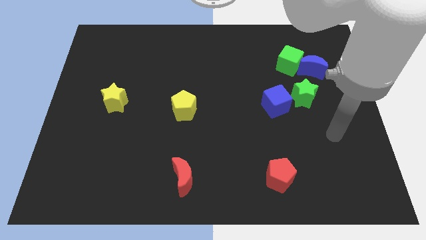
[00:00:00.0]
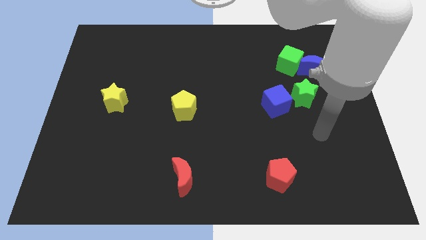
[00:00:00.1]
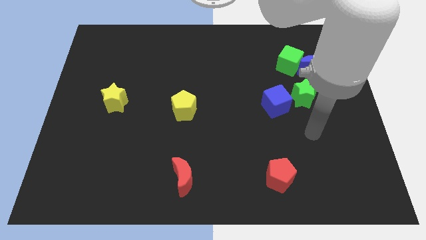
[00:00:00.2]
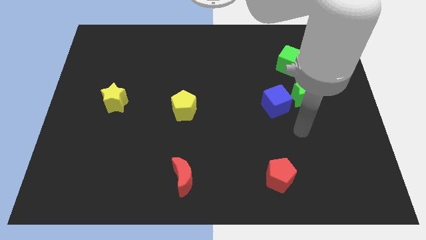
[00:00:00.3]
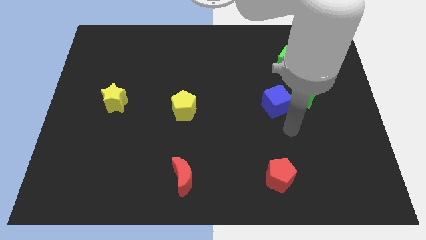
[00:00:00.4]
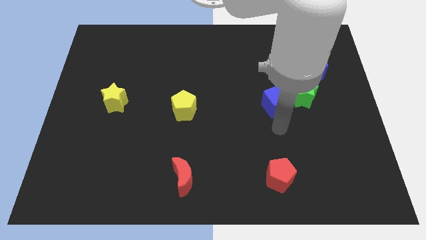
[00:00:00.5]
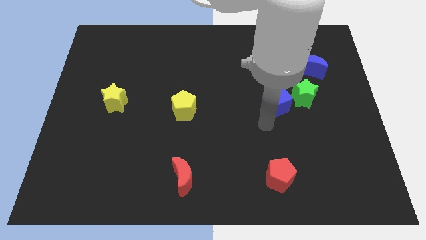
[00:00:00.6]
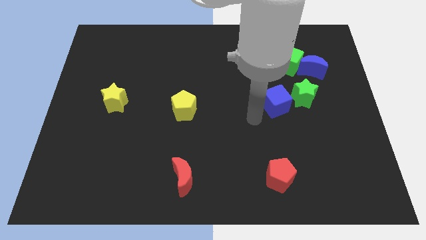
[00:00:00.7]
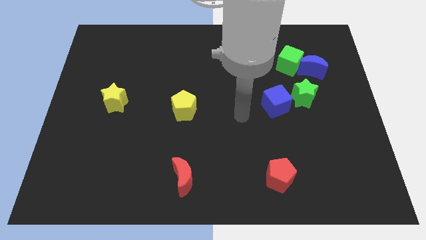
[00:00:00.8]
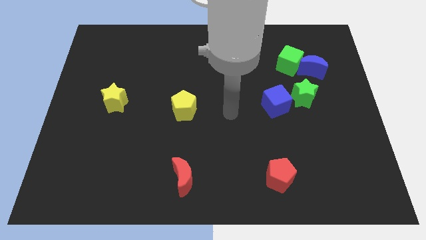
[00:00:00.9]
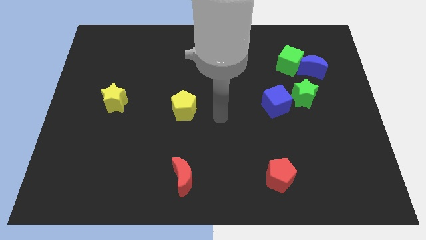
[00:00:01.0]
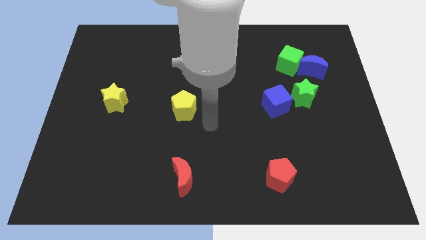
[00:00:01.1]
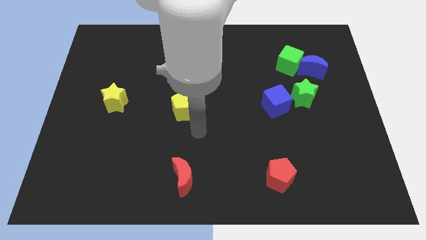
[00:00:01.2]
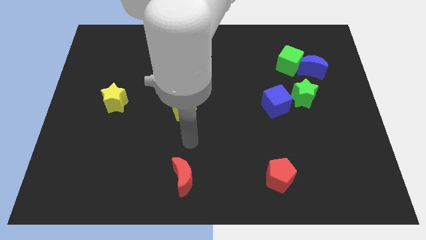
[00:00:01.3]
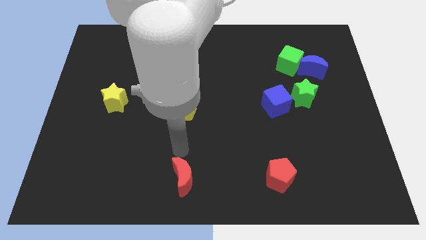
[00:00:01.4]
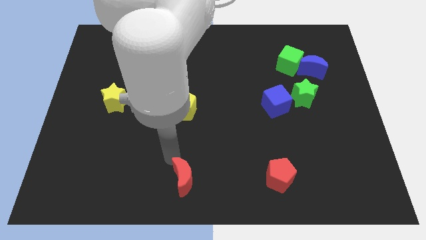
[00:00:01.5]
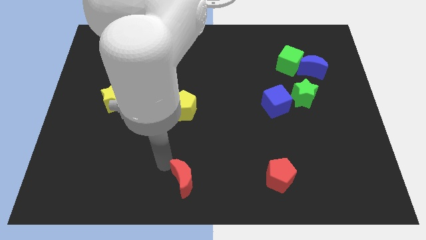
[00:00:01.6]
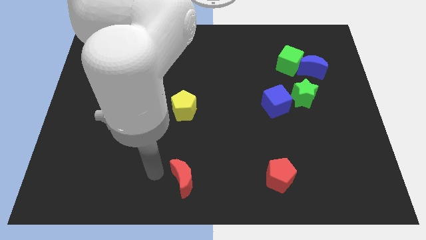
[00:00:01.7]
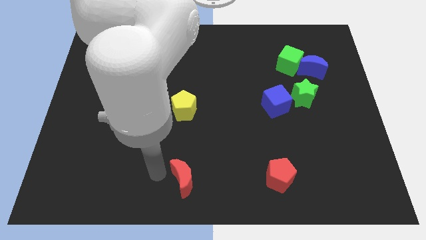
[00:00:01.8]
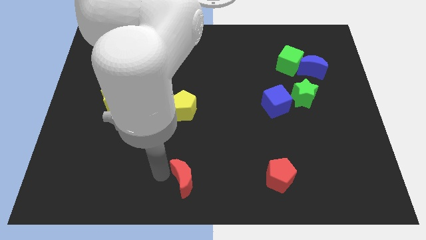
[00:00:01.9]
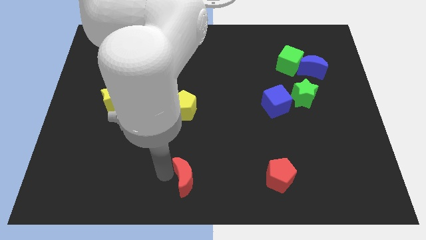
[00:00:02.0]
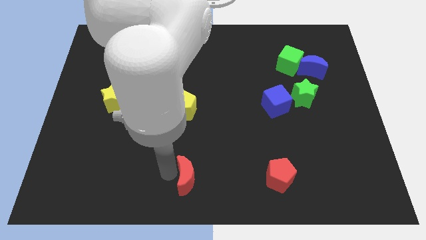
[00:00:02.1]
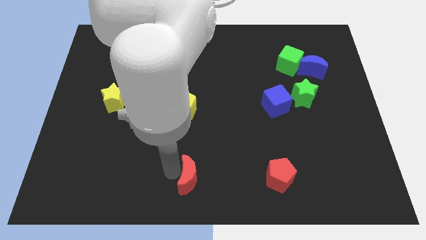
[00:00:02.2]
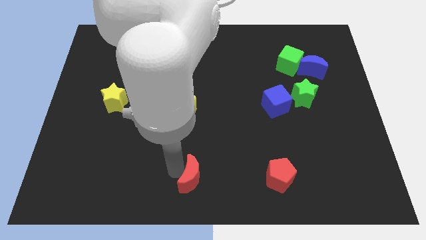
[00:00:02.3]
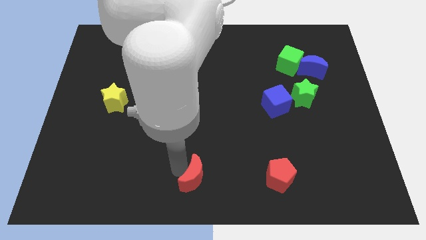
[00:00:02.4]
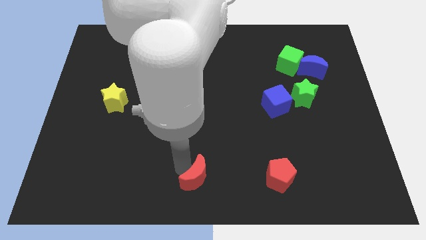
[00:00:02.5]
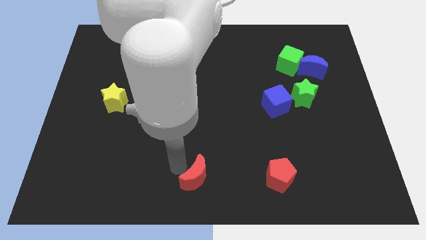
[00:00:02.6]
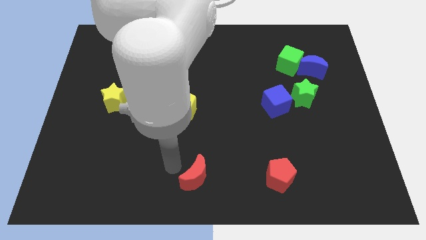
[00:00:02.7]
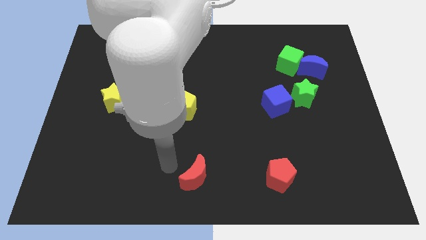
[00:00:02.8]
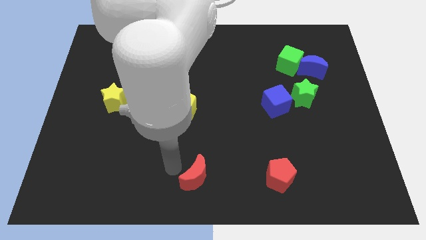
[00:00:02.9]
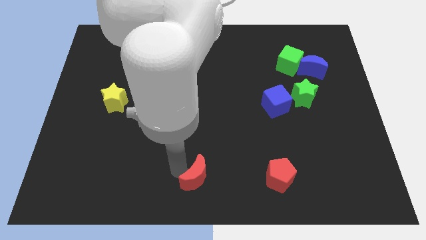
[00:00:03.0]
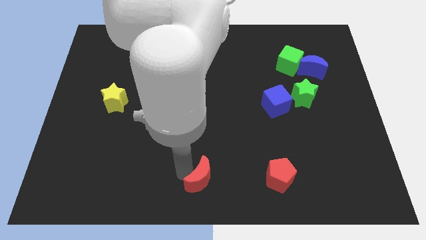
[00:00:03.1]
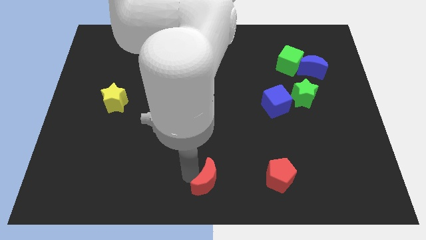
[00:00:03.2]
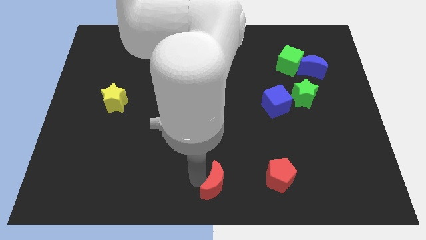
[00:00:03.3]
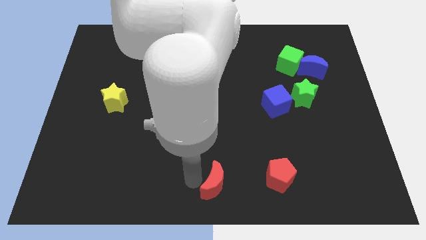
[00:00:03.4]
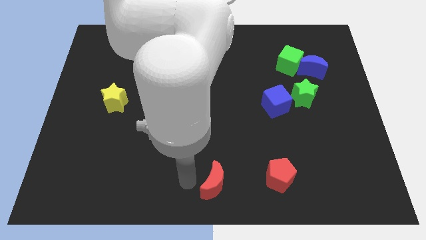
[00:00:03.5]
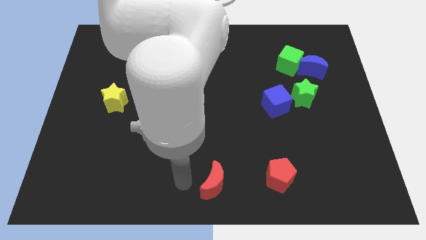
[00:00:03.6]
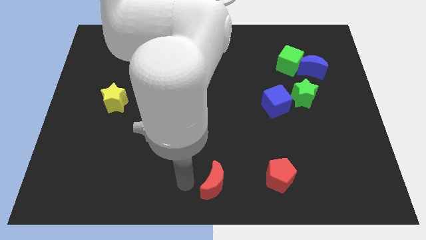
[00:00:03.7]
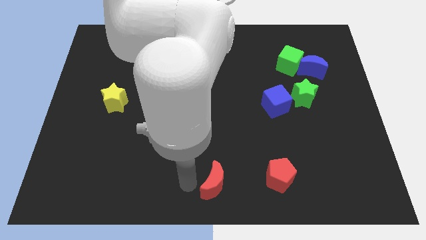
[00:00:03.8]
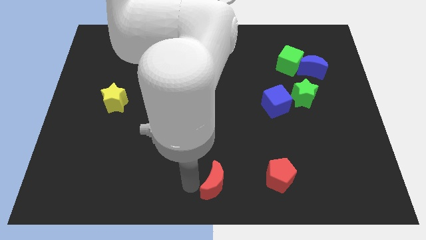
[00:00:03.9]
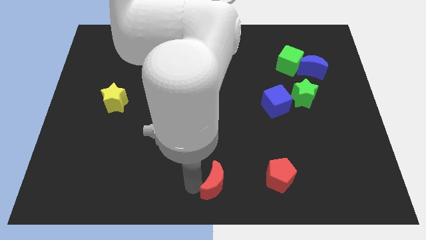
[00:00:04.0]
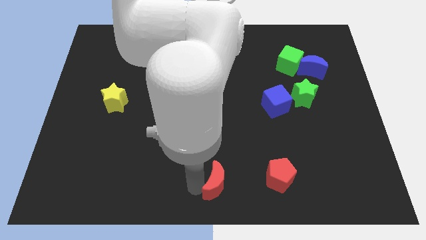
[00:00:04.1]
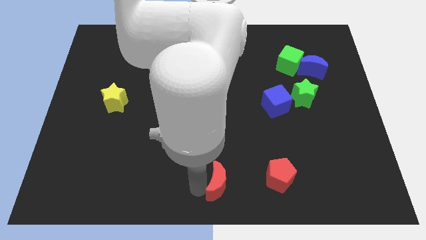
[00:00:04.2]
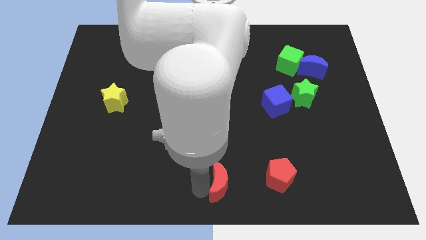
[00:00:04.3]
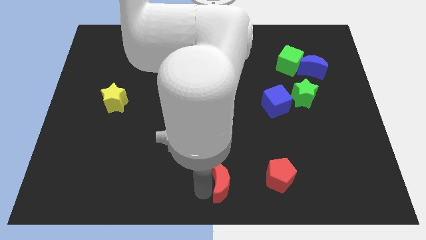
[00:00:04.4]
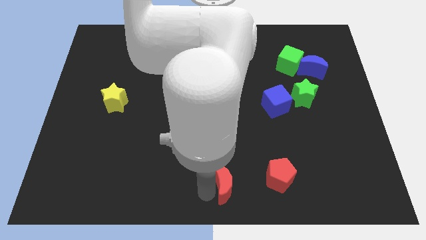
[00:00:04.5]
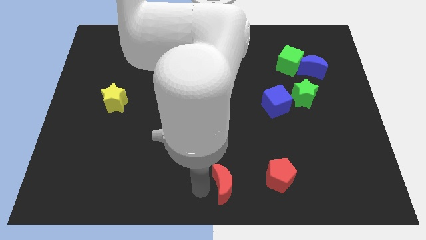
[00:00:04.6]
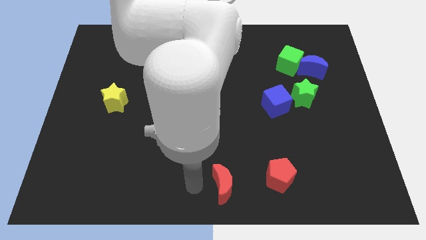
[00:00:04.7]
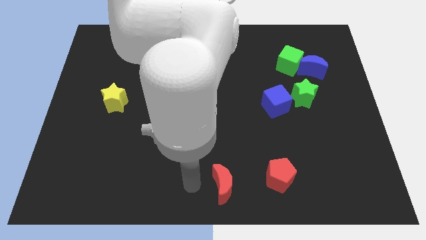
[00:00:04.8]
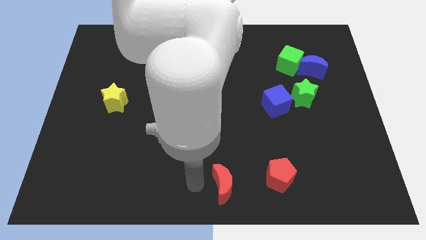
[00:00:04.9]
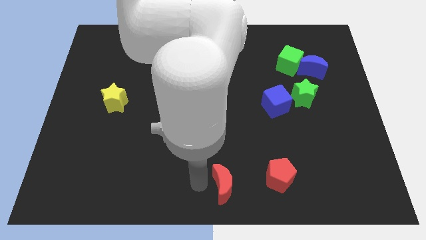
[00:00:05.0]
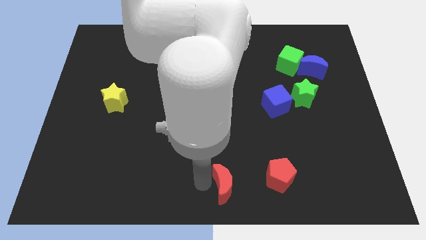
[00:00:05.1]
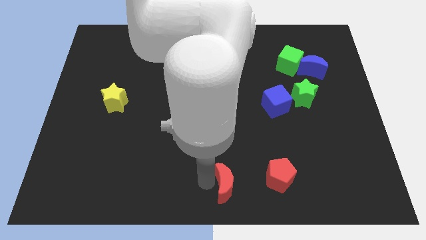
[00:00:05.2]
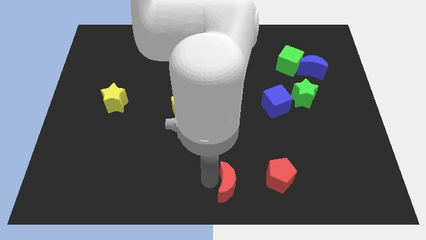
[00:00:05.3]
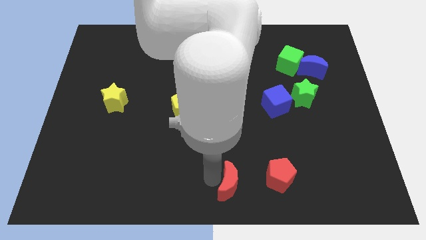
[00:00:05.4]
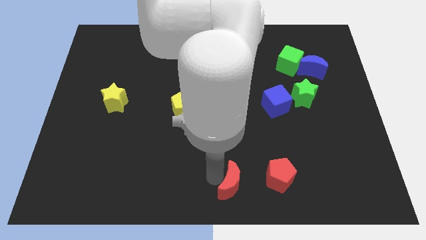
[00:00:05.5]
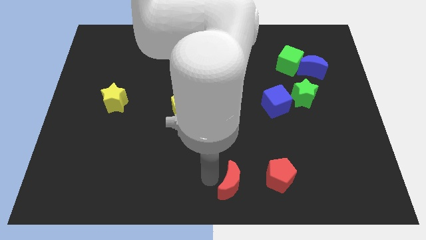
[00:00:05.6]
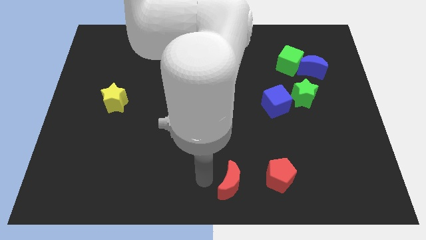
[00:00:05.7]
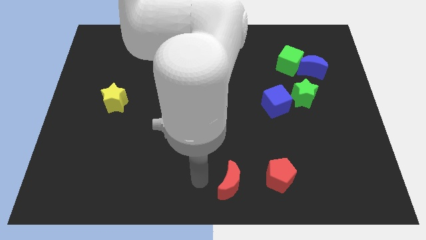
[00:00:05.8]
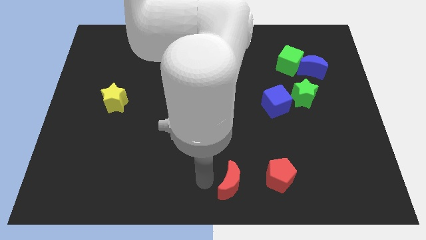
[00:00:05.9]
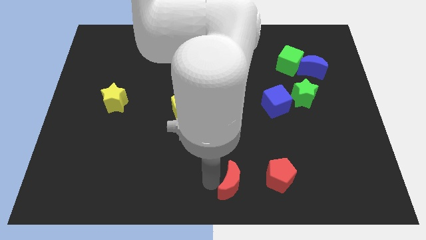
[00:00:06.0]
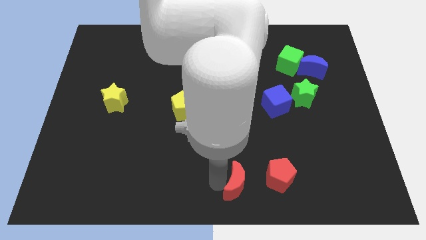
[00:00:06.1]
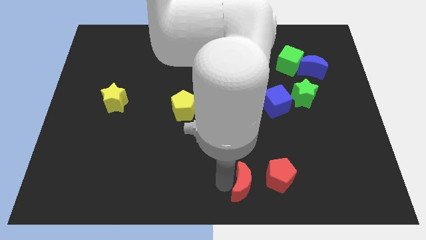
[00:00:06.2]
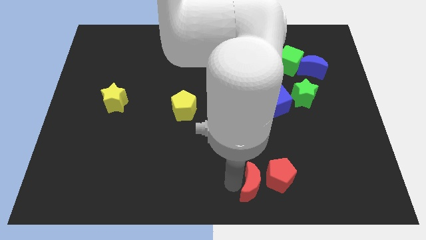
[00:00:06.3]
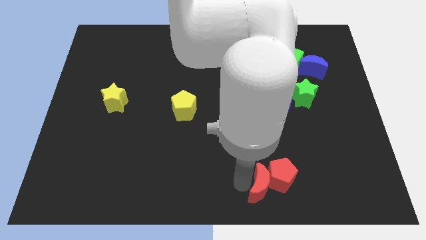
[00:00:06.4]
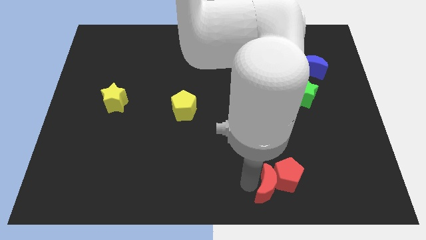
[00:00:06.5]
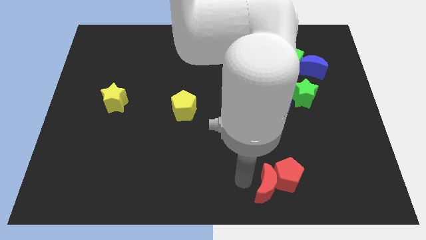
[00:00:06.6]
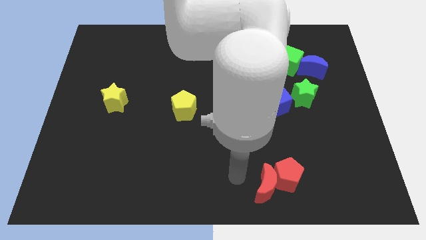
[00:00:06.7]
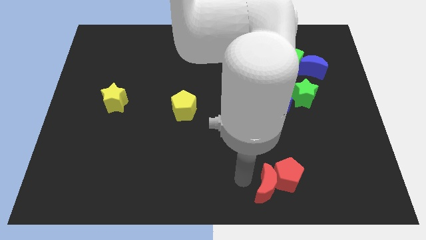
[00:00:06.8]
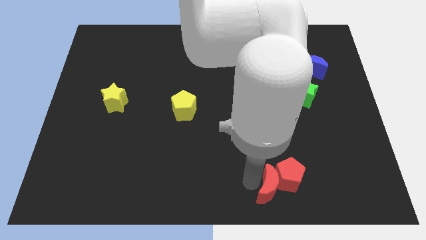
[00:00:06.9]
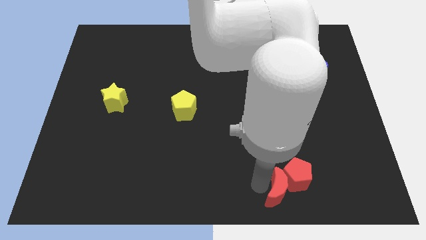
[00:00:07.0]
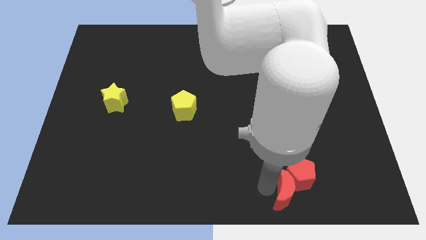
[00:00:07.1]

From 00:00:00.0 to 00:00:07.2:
push the red moon right

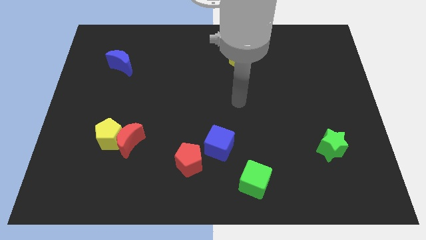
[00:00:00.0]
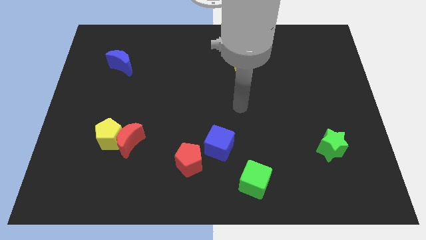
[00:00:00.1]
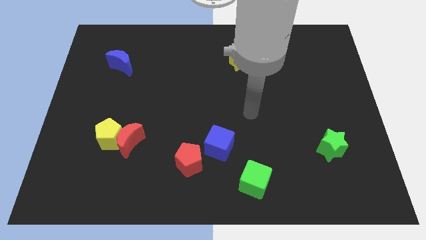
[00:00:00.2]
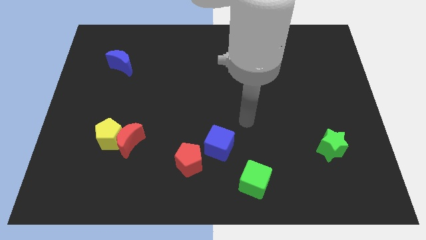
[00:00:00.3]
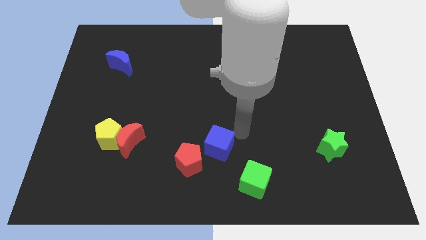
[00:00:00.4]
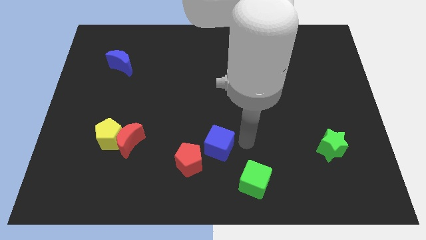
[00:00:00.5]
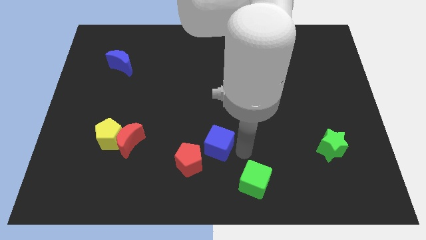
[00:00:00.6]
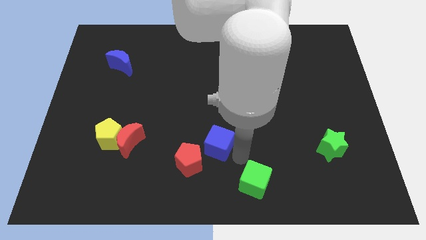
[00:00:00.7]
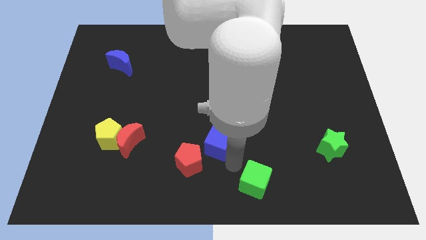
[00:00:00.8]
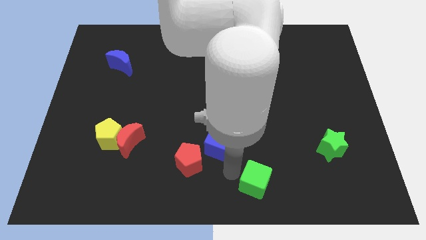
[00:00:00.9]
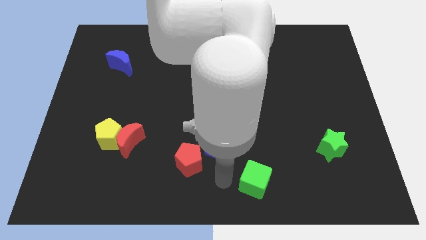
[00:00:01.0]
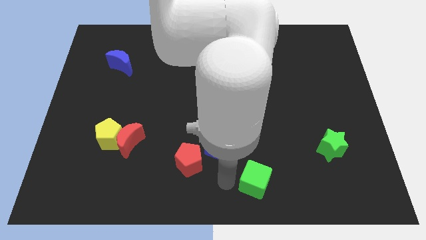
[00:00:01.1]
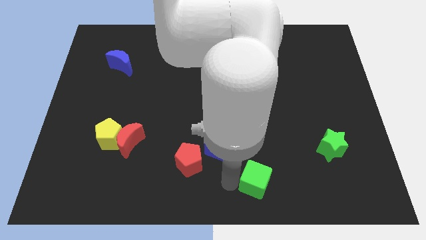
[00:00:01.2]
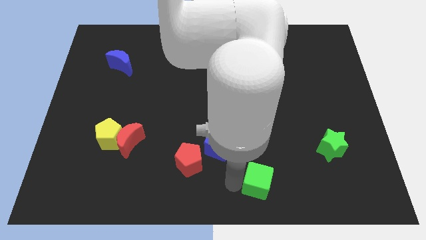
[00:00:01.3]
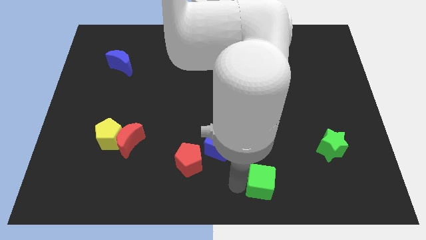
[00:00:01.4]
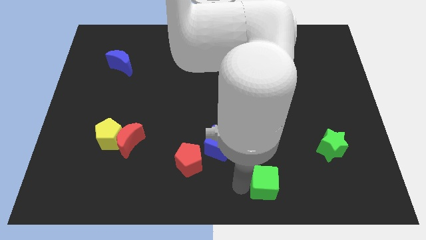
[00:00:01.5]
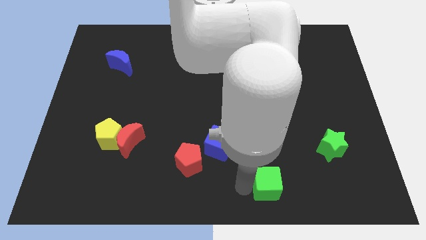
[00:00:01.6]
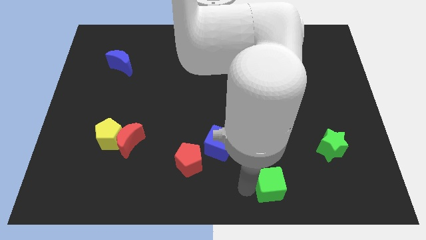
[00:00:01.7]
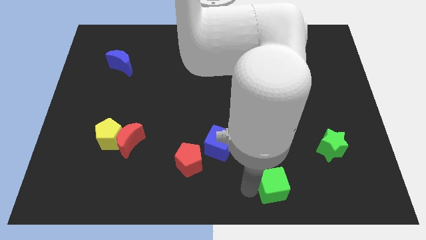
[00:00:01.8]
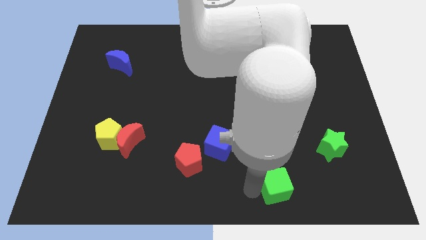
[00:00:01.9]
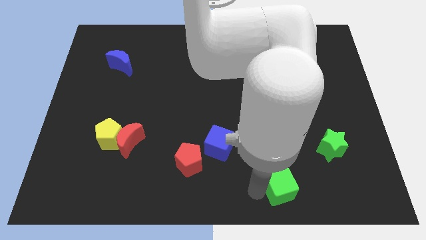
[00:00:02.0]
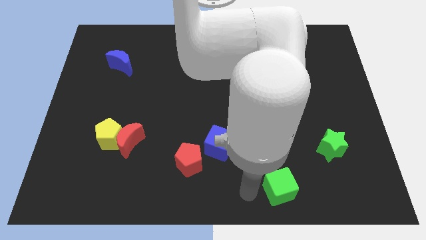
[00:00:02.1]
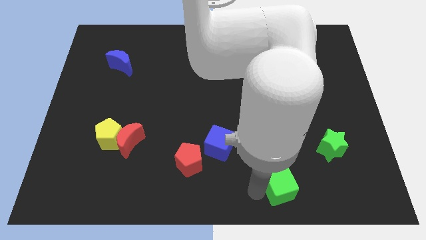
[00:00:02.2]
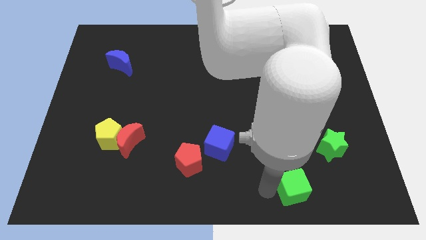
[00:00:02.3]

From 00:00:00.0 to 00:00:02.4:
slide the green cube a little right
